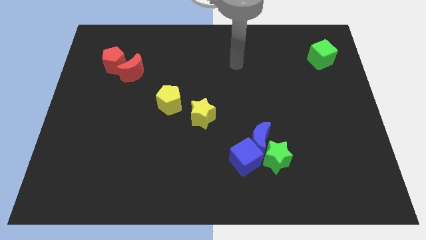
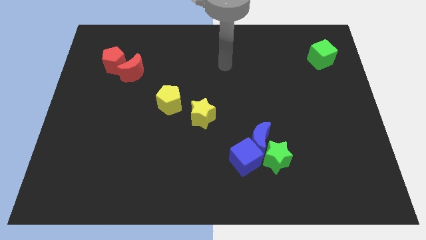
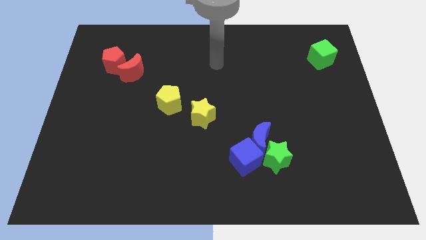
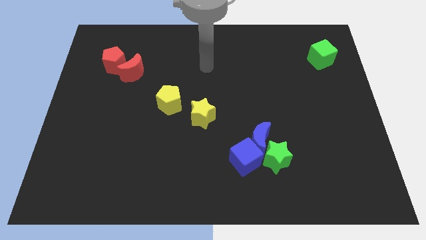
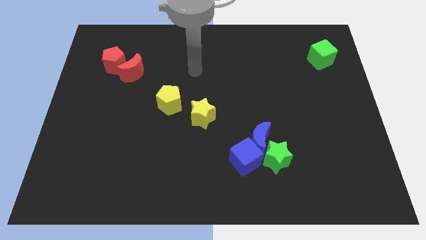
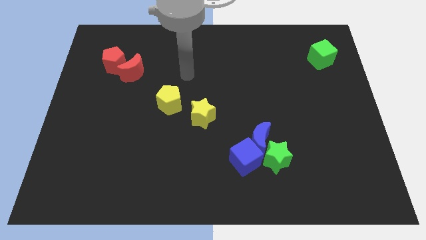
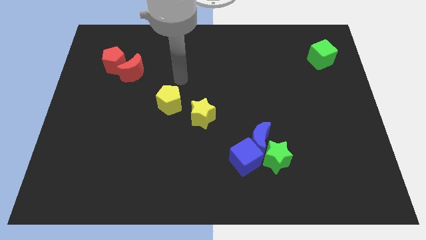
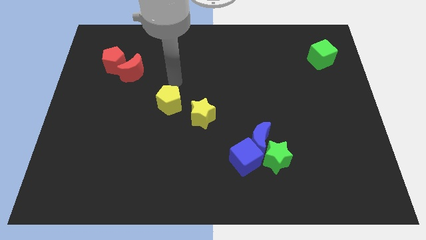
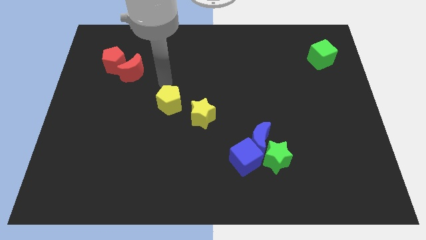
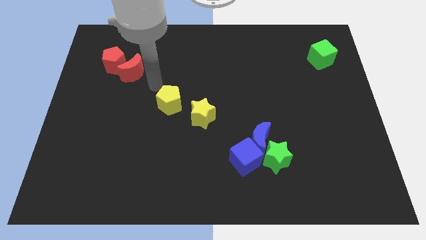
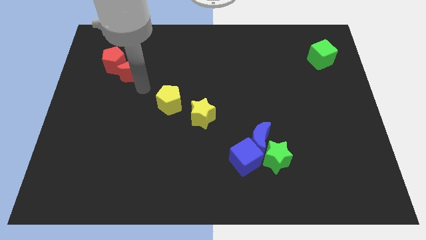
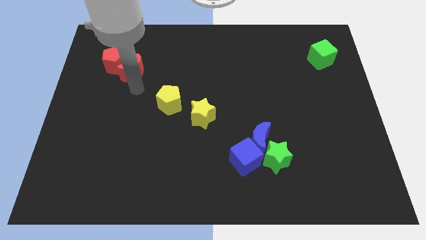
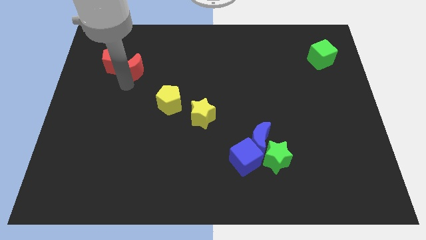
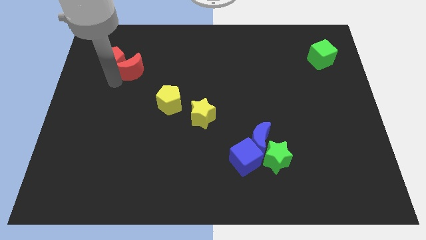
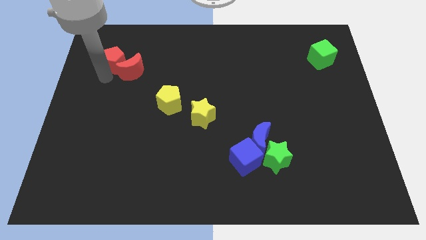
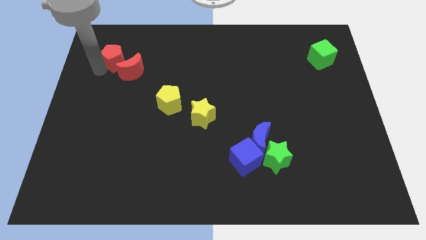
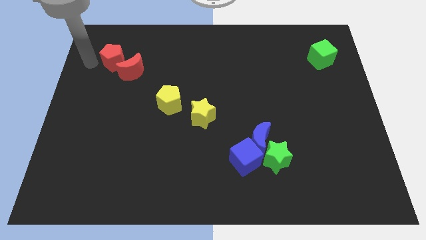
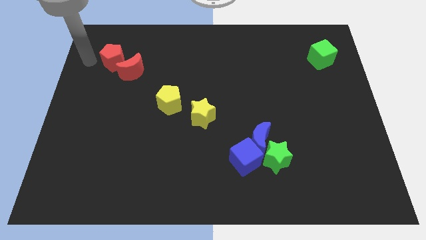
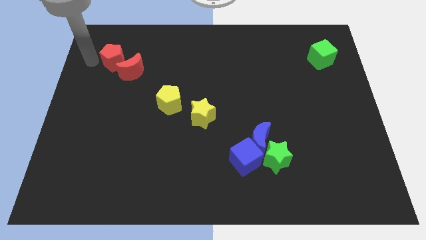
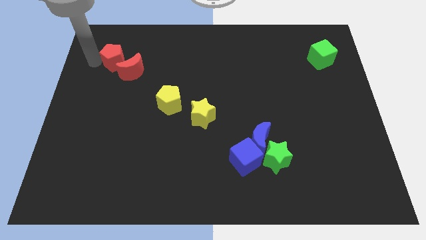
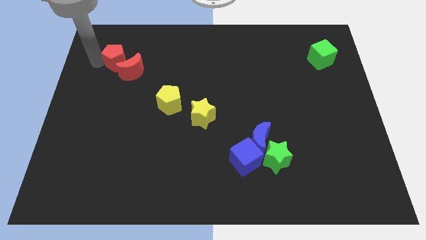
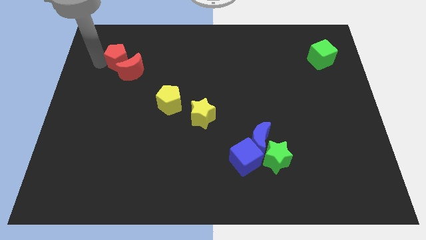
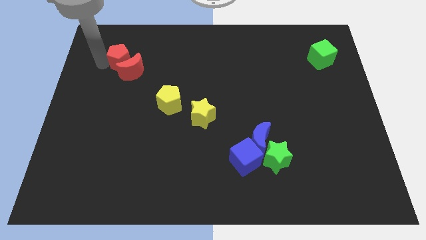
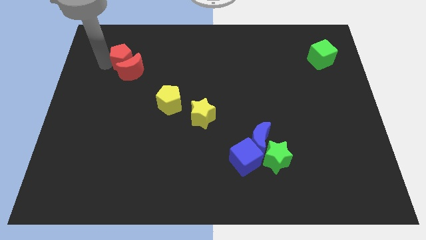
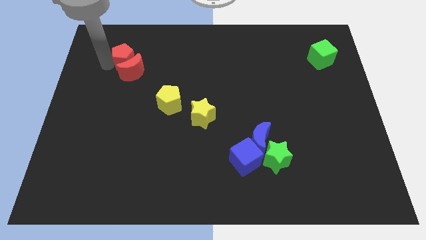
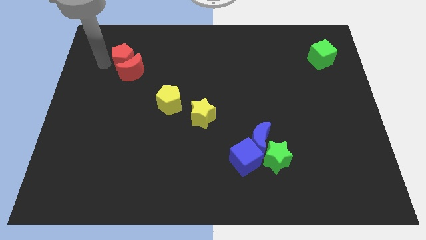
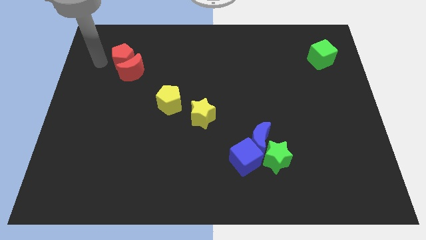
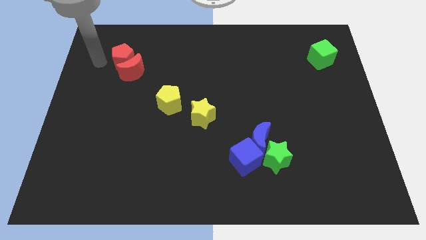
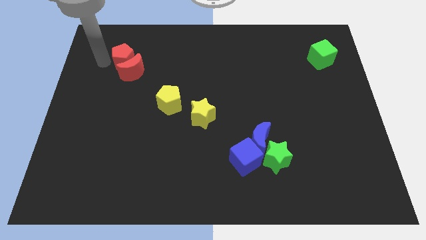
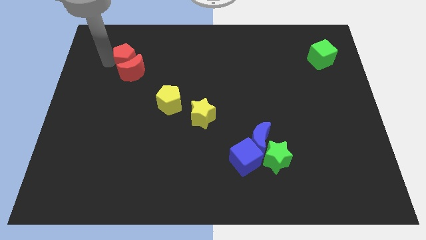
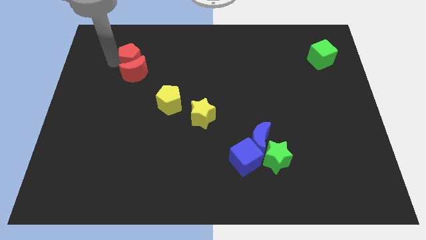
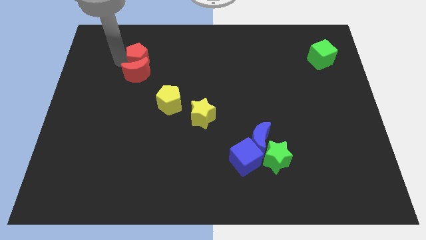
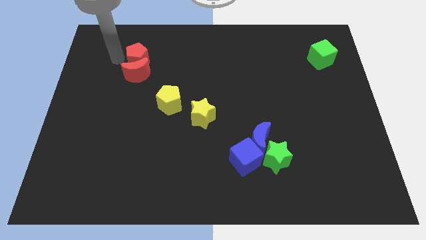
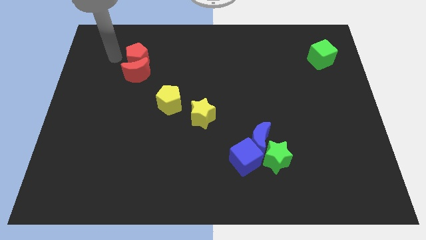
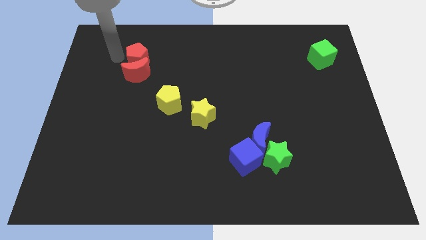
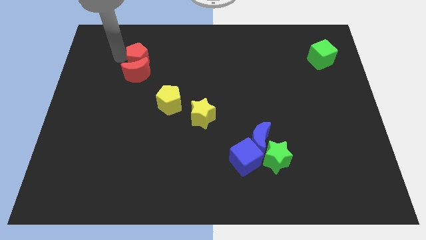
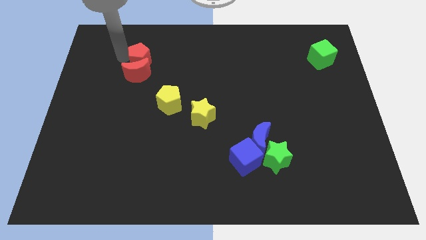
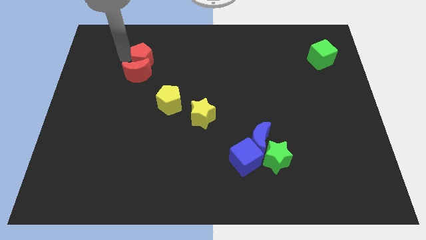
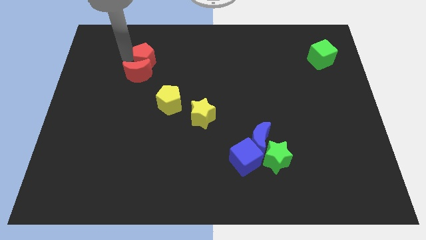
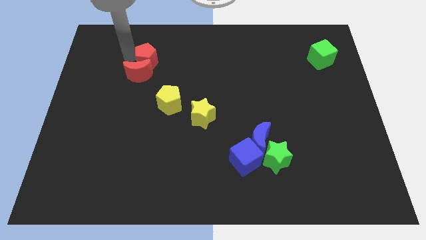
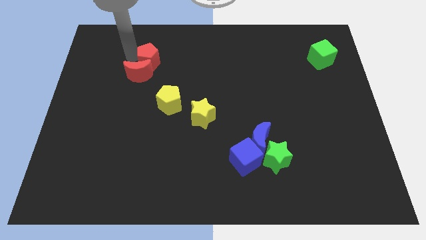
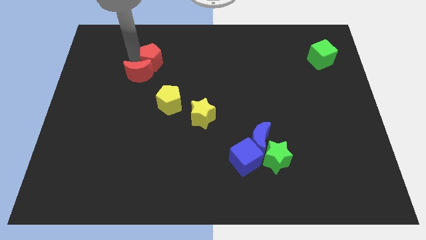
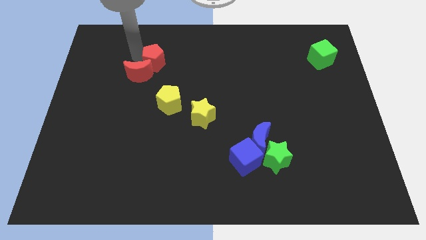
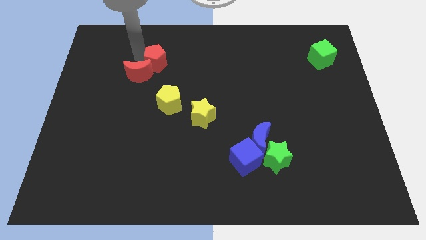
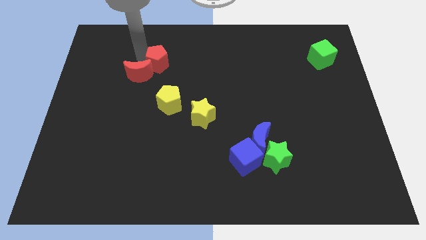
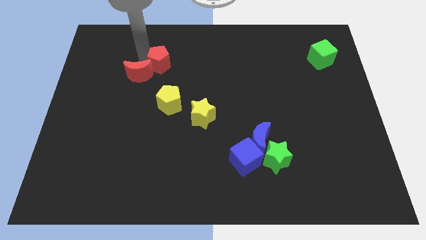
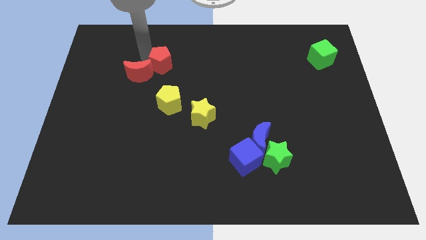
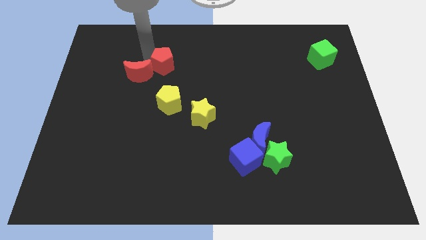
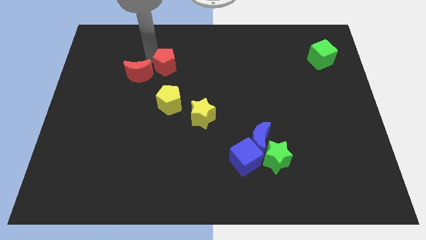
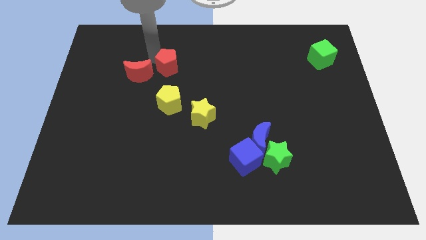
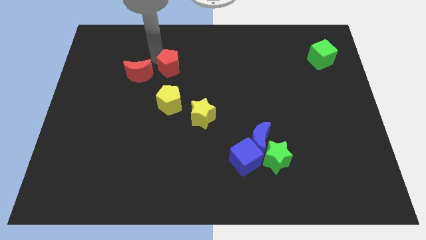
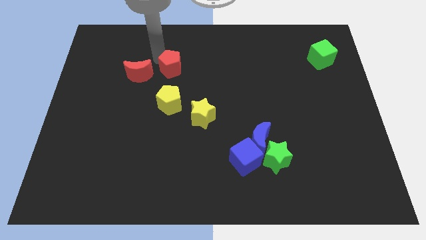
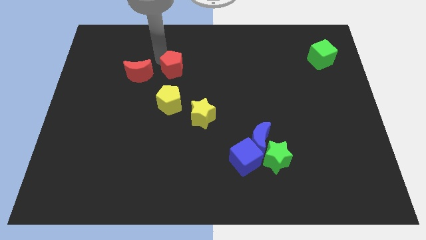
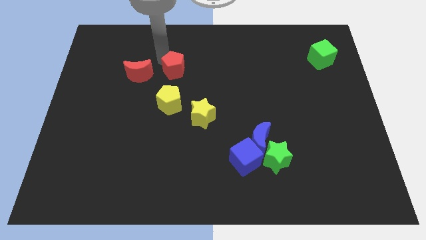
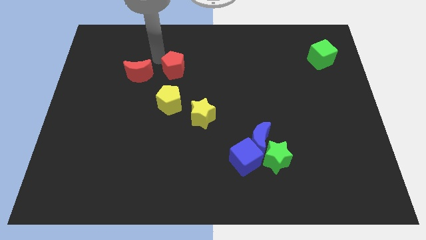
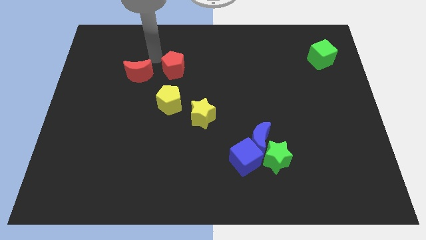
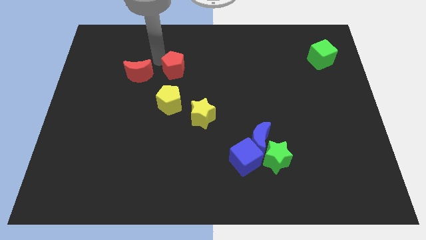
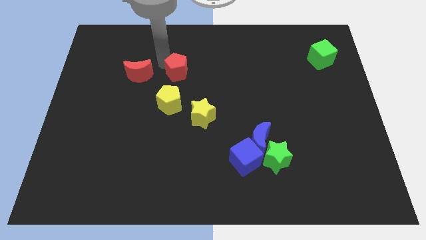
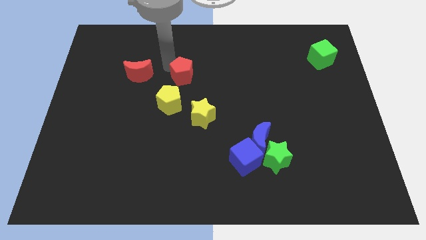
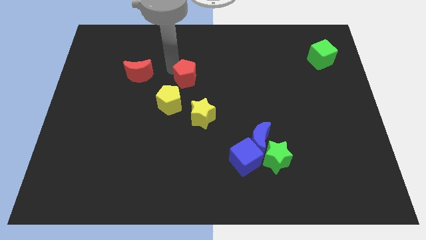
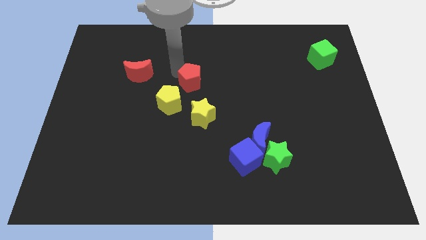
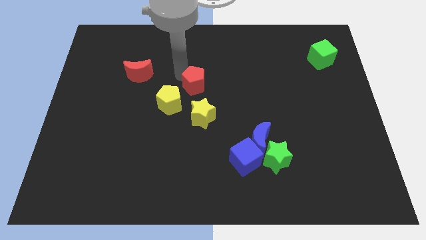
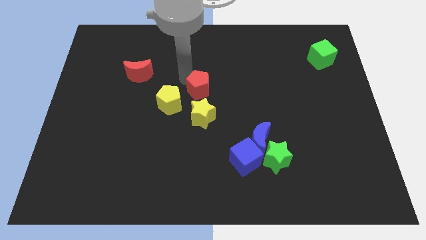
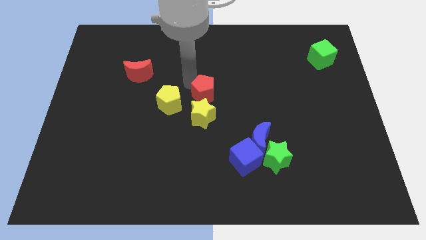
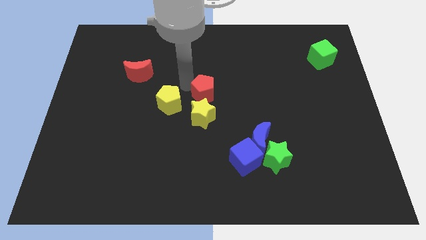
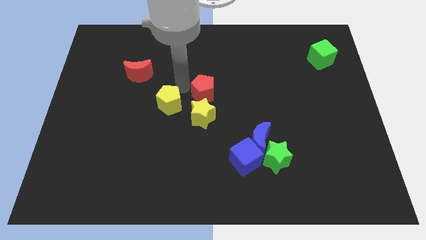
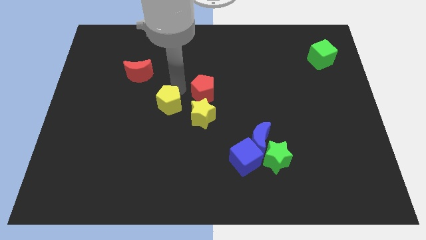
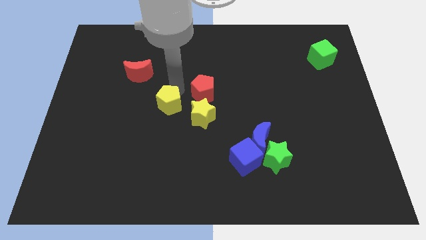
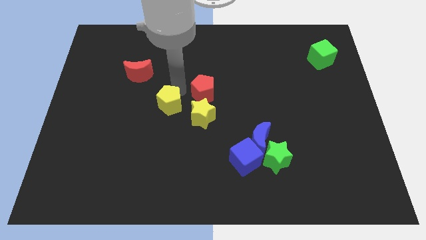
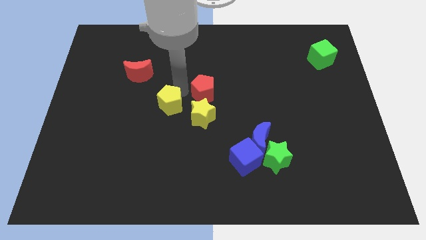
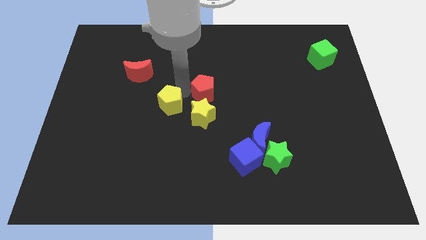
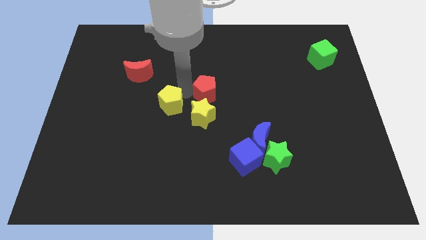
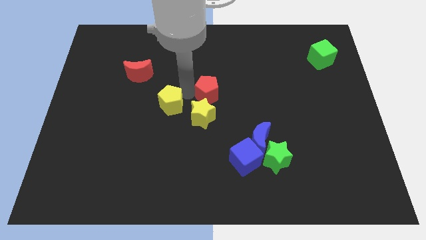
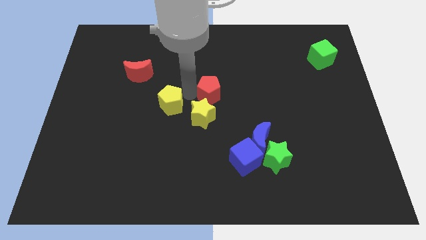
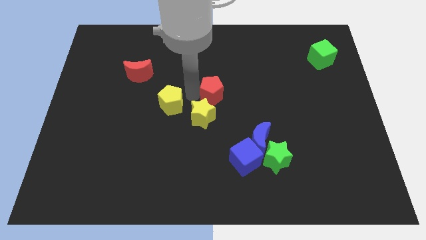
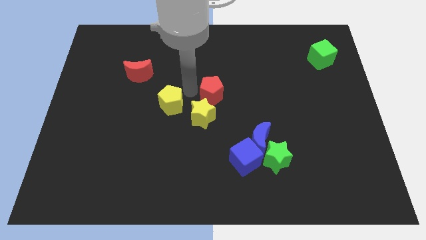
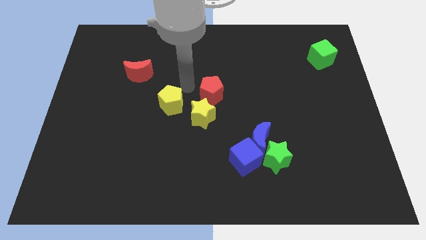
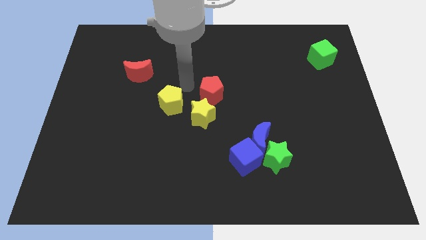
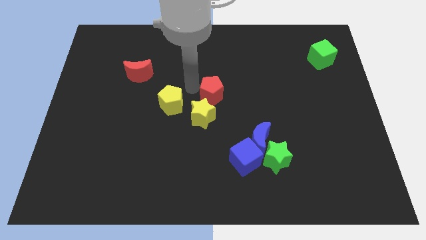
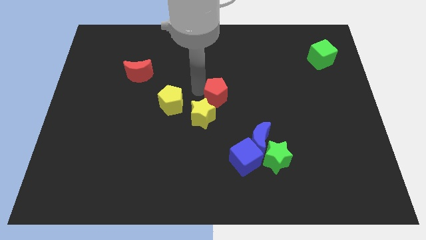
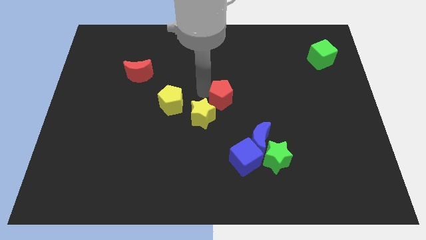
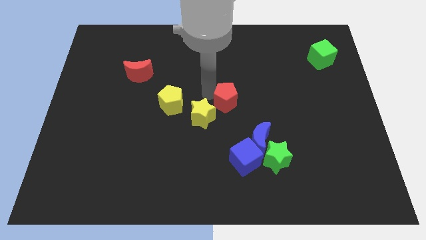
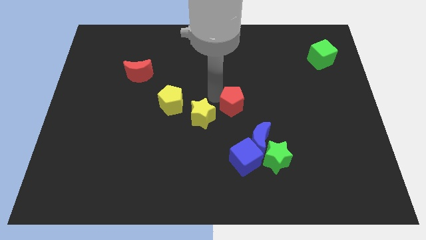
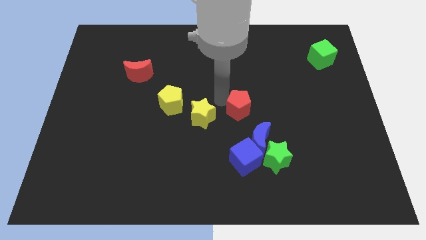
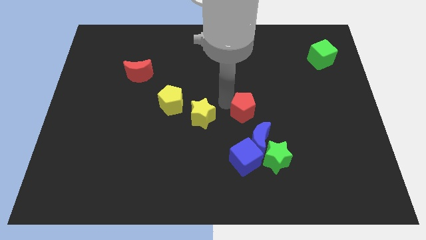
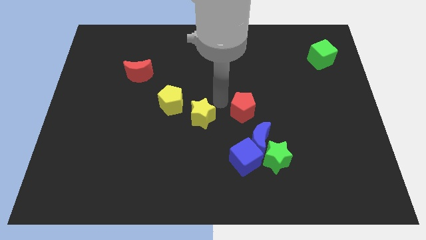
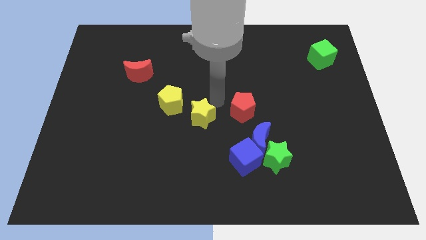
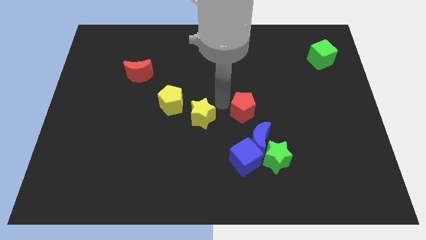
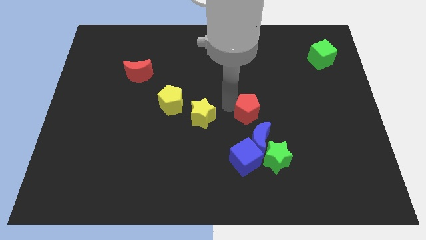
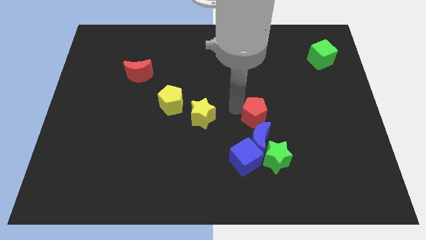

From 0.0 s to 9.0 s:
push the red pentagon to the top of the green star
